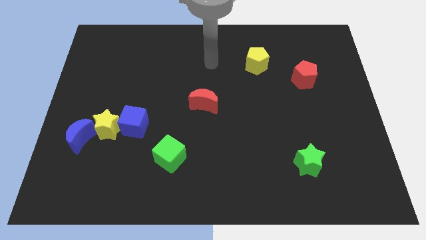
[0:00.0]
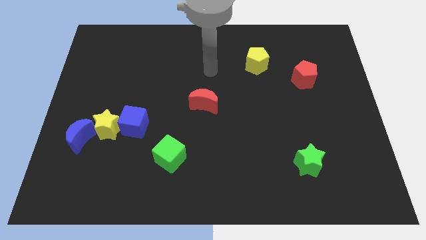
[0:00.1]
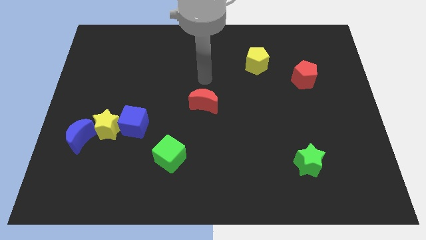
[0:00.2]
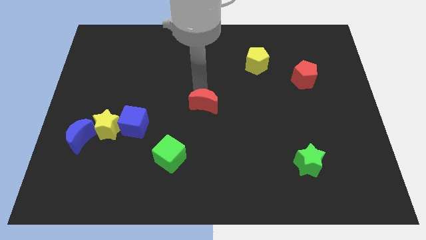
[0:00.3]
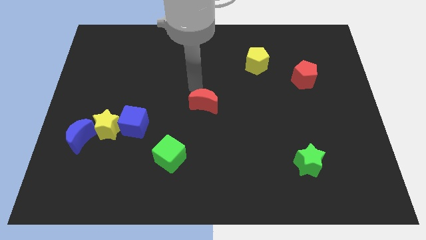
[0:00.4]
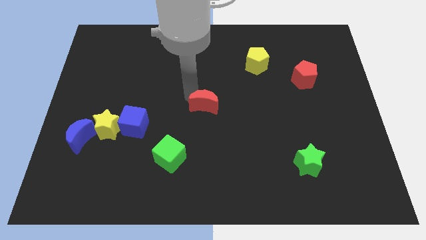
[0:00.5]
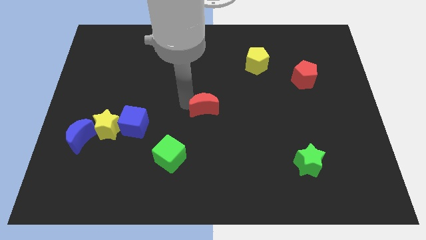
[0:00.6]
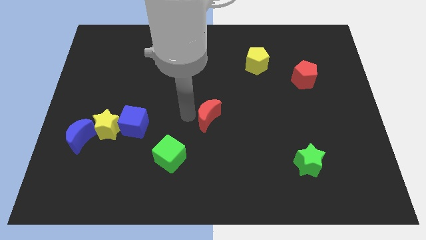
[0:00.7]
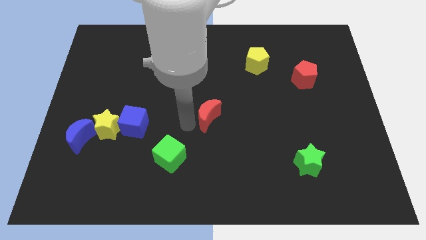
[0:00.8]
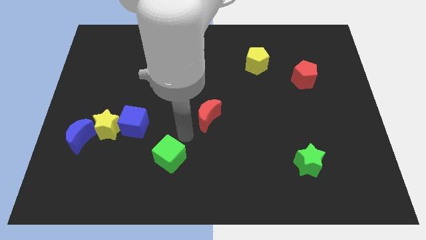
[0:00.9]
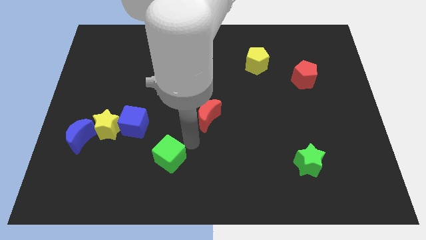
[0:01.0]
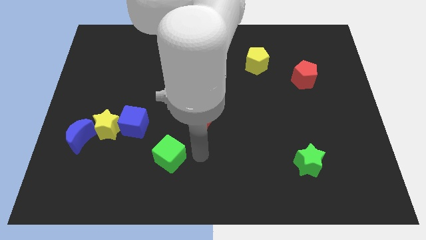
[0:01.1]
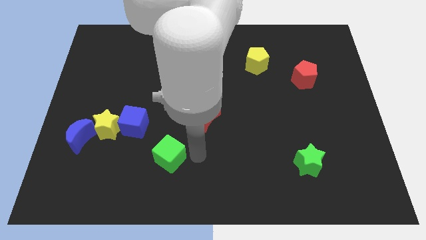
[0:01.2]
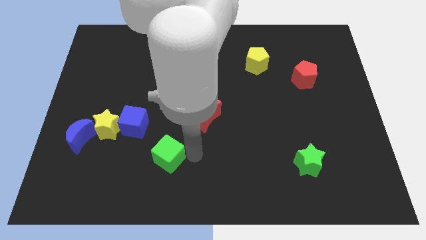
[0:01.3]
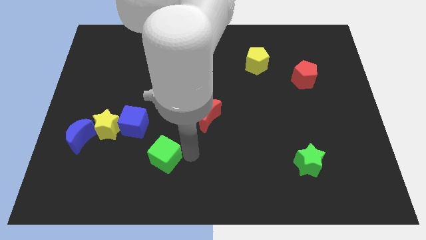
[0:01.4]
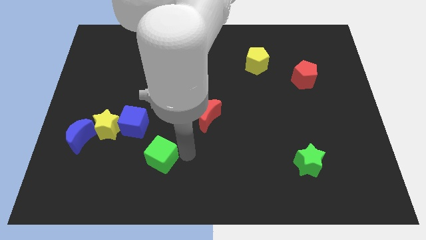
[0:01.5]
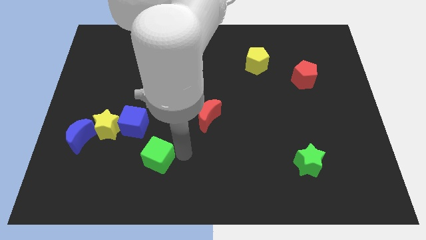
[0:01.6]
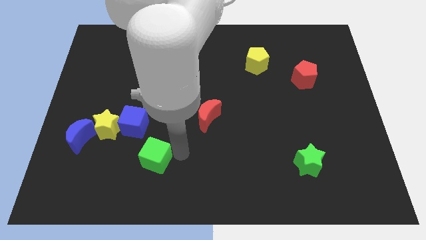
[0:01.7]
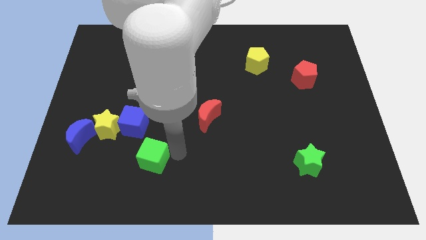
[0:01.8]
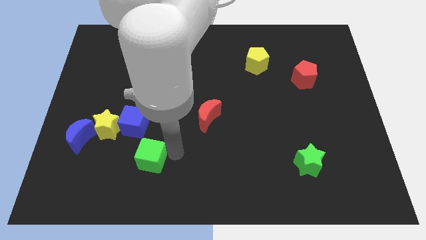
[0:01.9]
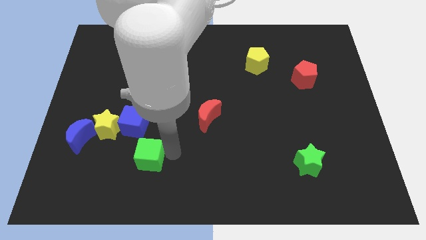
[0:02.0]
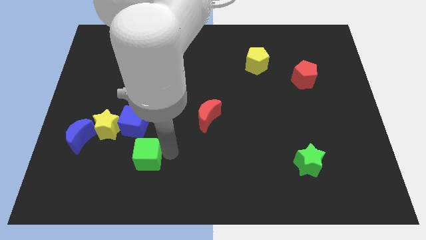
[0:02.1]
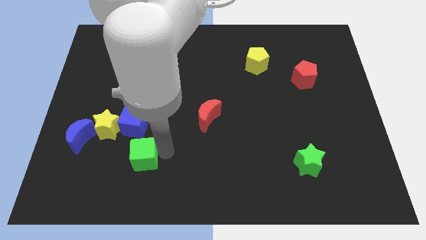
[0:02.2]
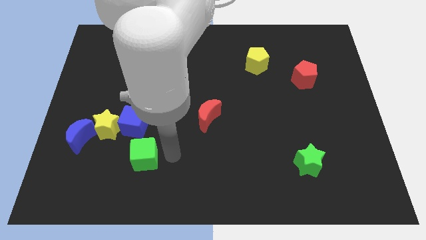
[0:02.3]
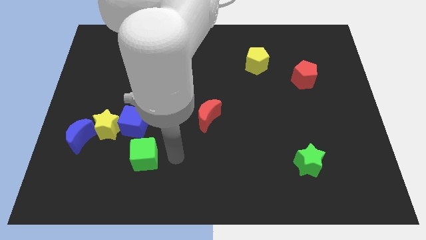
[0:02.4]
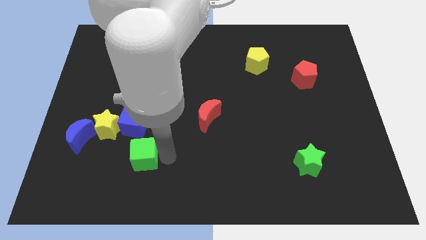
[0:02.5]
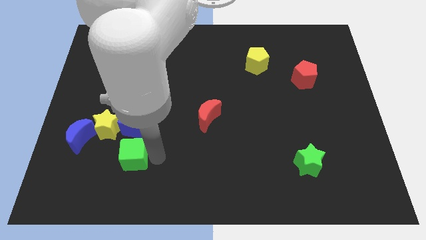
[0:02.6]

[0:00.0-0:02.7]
slightly push the green cube to the left

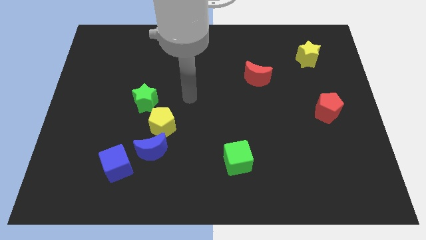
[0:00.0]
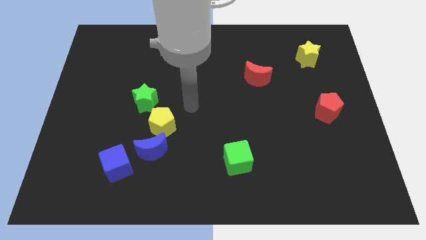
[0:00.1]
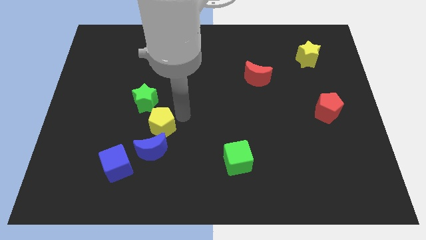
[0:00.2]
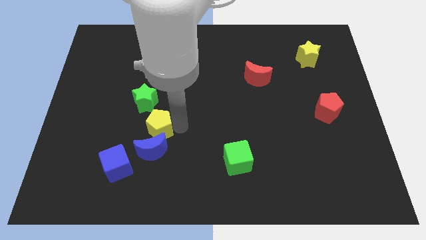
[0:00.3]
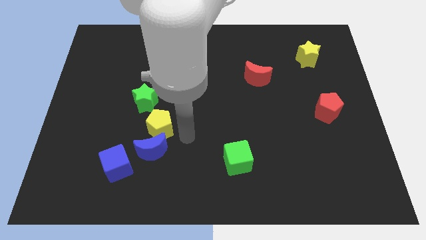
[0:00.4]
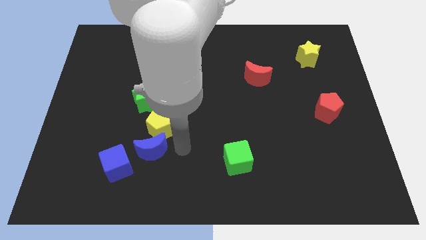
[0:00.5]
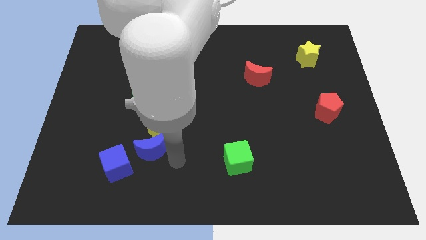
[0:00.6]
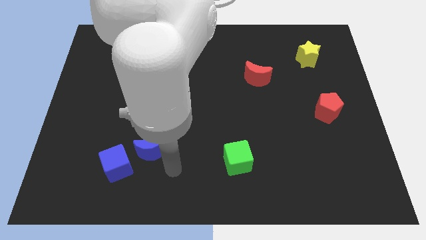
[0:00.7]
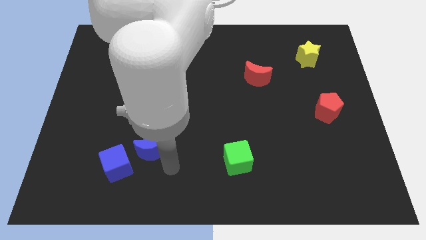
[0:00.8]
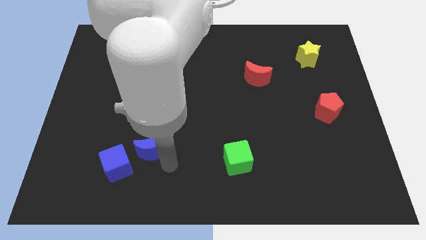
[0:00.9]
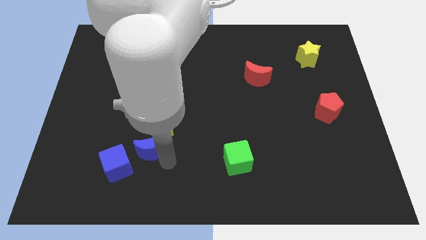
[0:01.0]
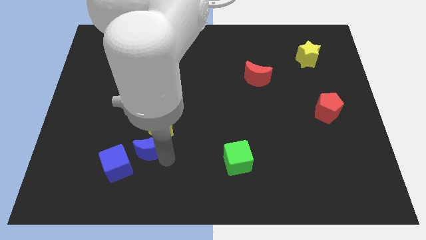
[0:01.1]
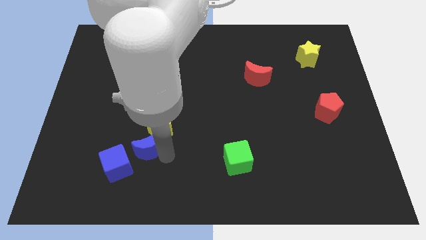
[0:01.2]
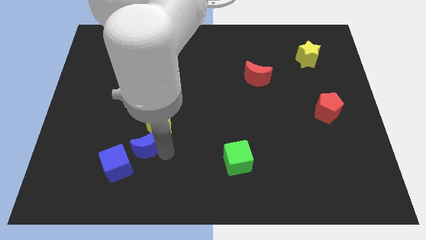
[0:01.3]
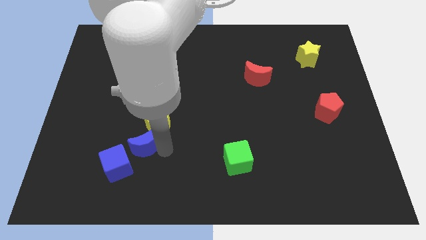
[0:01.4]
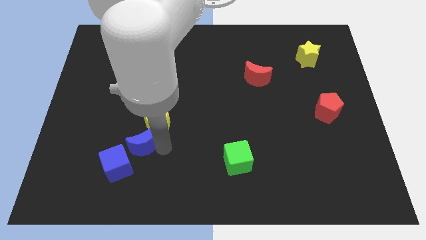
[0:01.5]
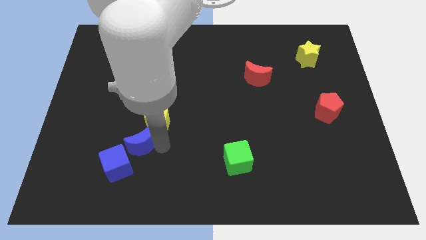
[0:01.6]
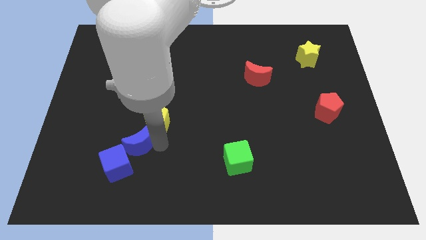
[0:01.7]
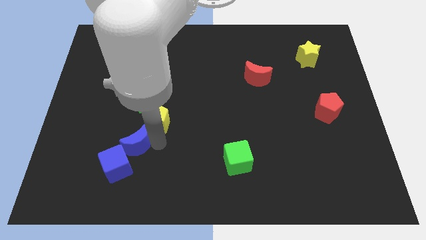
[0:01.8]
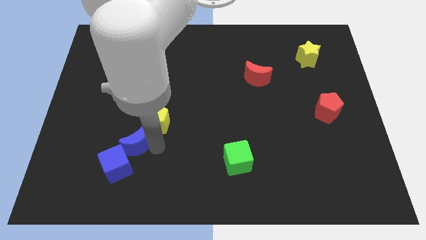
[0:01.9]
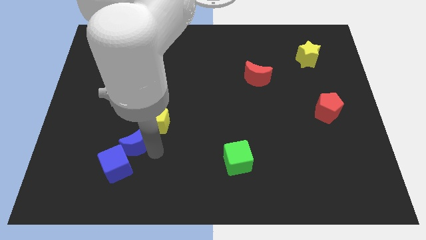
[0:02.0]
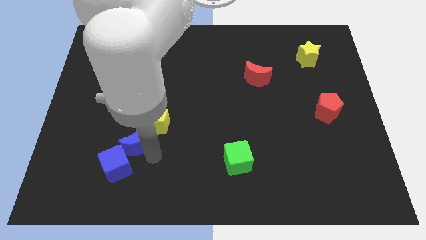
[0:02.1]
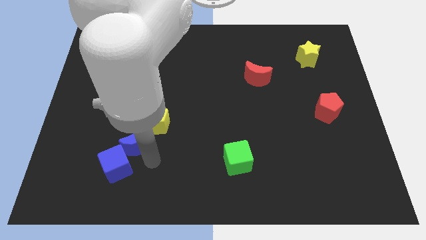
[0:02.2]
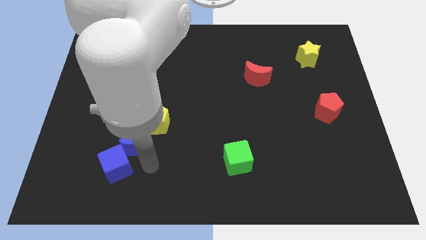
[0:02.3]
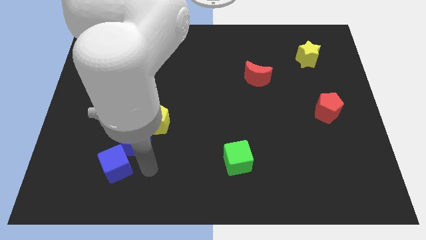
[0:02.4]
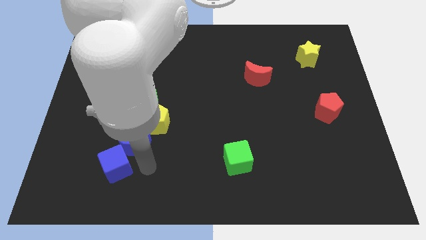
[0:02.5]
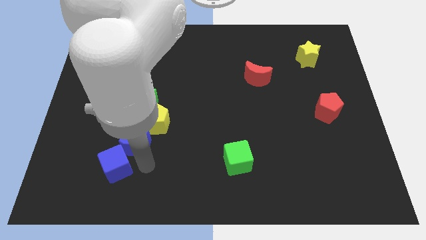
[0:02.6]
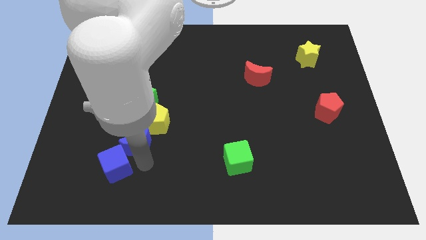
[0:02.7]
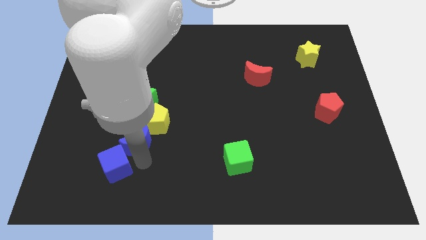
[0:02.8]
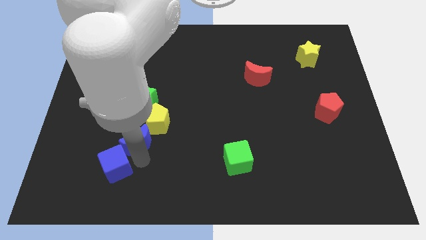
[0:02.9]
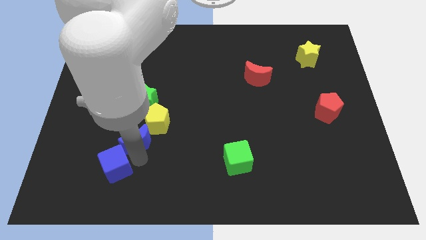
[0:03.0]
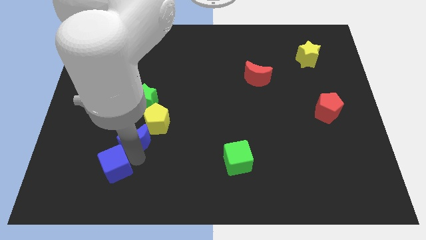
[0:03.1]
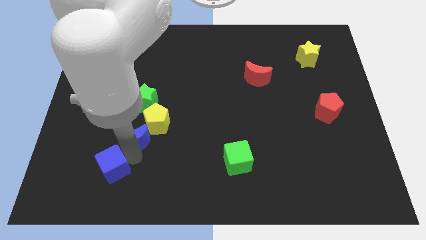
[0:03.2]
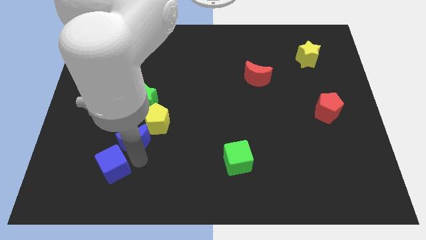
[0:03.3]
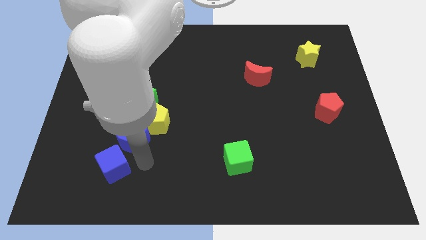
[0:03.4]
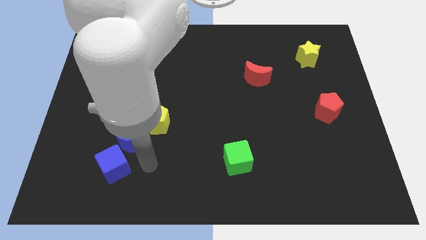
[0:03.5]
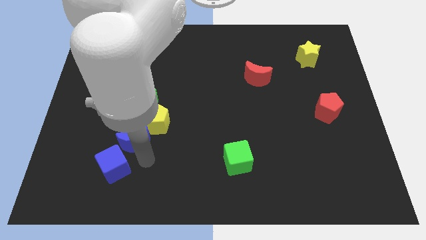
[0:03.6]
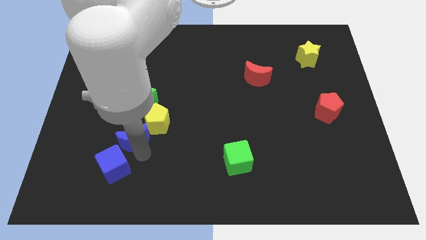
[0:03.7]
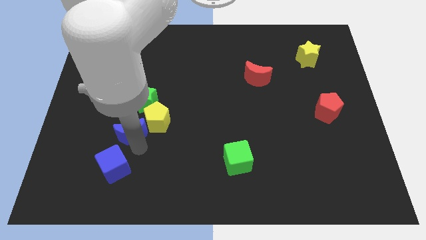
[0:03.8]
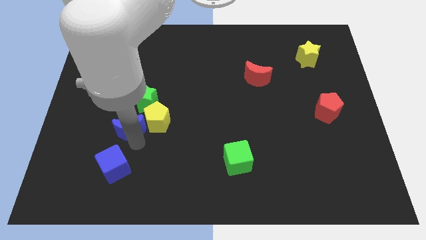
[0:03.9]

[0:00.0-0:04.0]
slide the blue moon a bit upwards and to the left diagonally

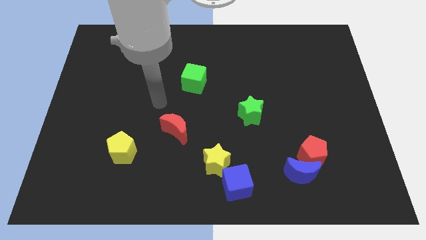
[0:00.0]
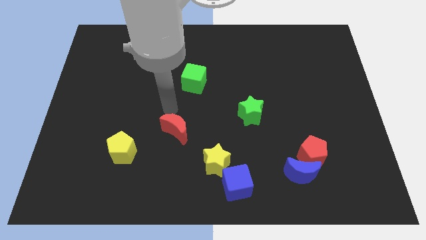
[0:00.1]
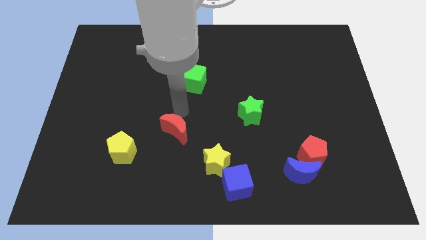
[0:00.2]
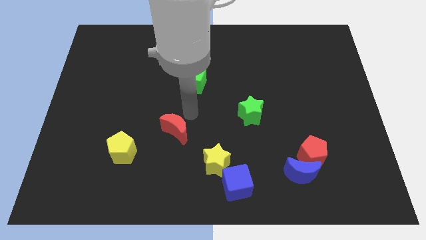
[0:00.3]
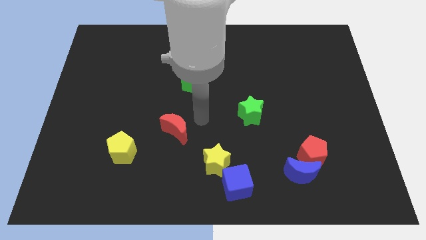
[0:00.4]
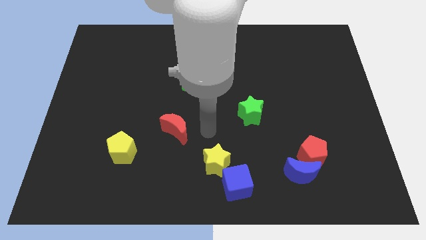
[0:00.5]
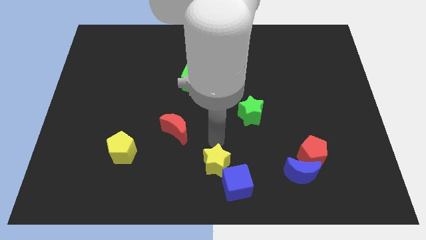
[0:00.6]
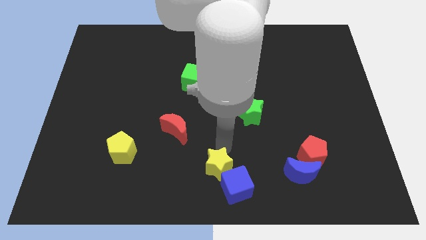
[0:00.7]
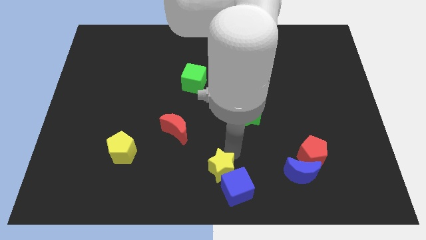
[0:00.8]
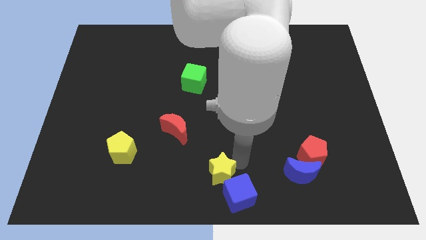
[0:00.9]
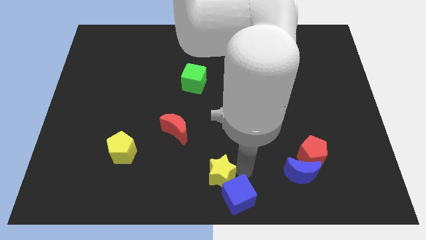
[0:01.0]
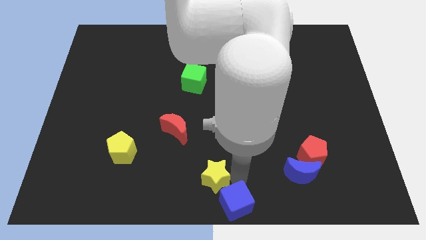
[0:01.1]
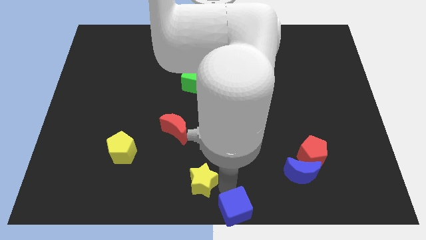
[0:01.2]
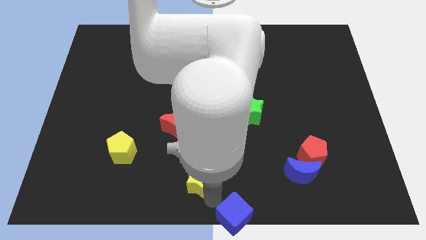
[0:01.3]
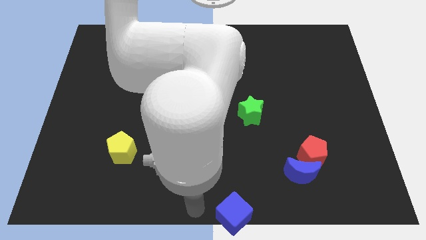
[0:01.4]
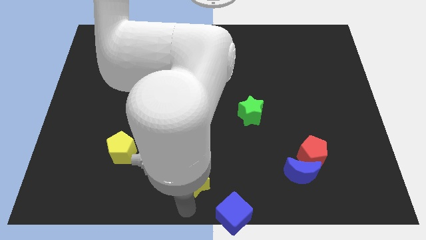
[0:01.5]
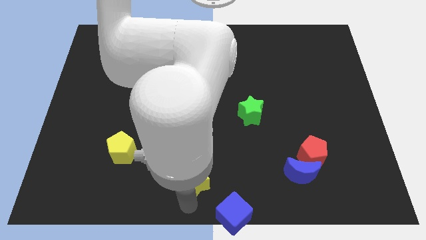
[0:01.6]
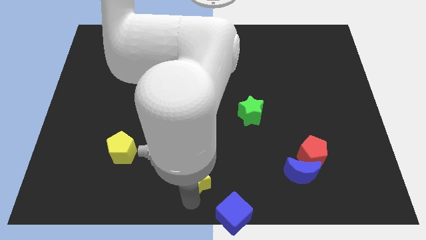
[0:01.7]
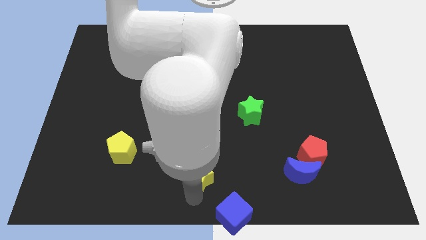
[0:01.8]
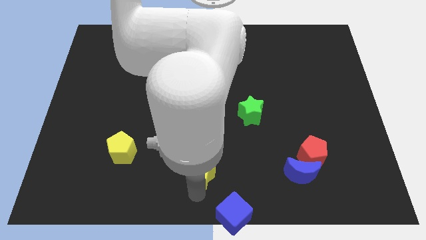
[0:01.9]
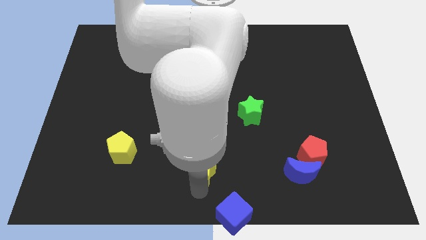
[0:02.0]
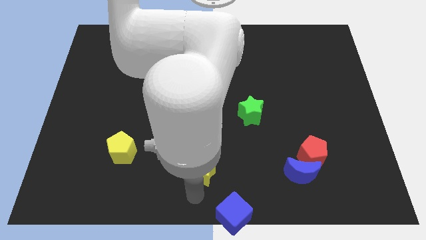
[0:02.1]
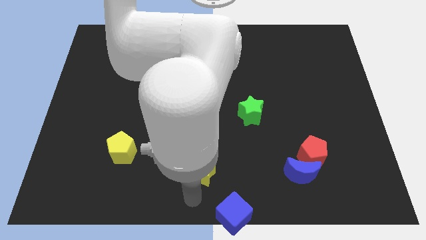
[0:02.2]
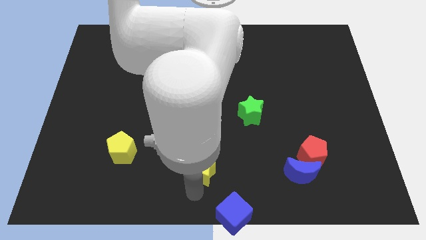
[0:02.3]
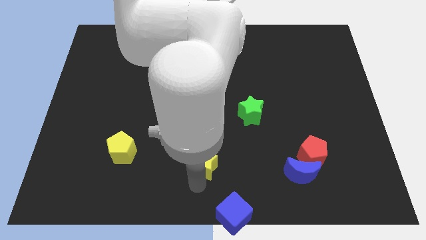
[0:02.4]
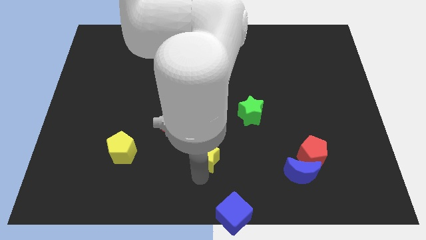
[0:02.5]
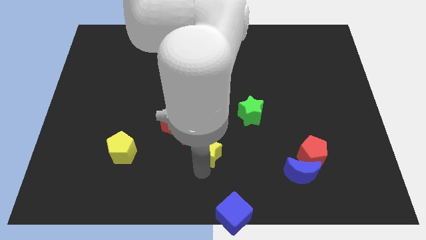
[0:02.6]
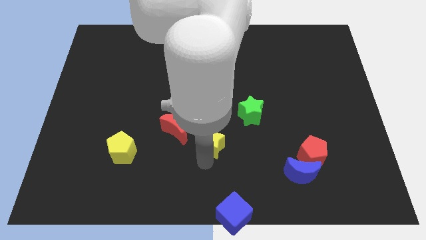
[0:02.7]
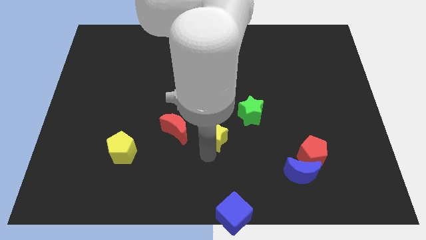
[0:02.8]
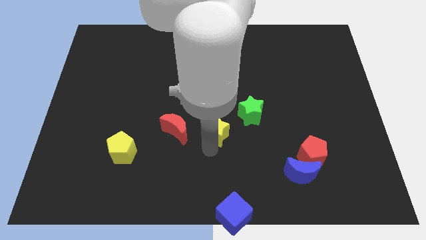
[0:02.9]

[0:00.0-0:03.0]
slide the yellow star somewhat upwards
